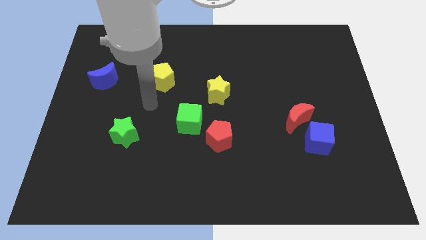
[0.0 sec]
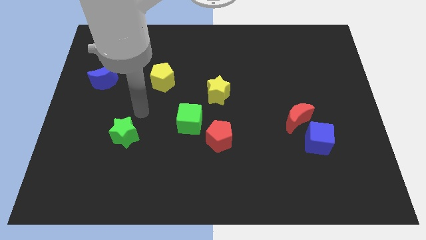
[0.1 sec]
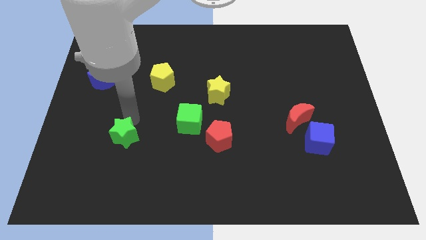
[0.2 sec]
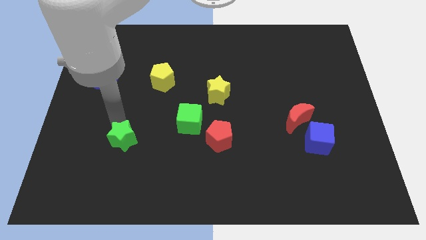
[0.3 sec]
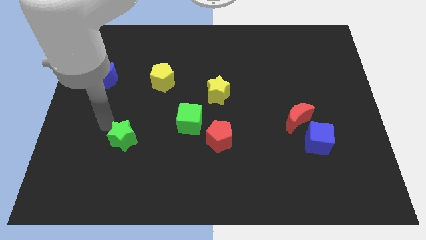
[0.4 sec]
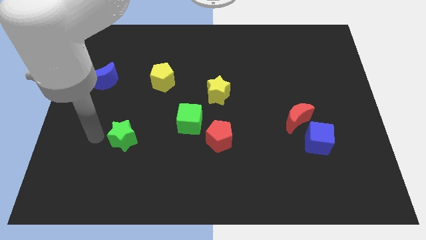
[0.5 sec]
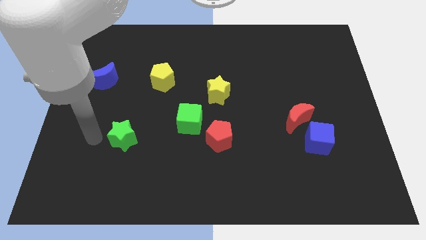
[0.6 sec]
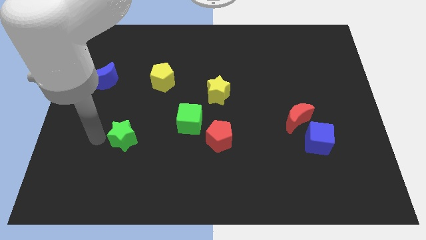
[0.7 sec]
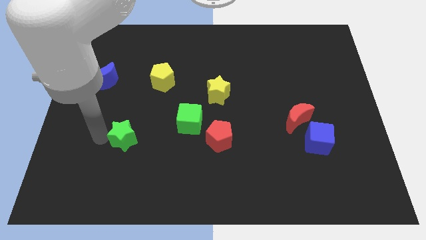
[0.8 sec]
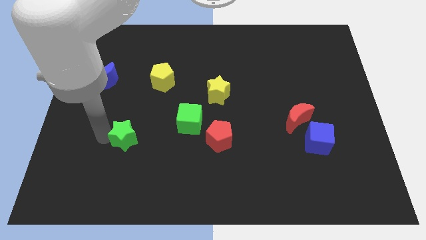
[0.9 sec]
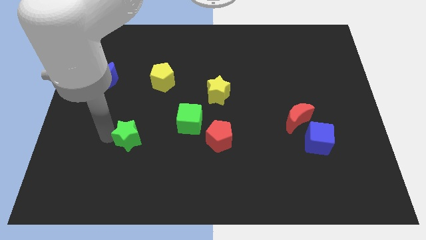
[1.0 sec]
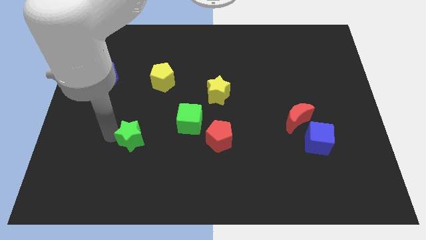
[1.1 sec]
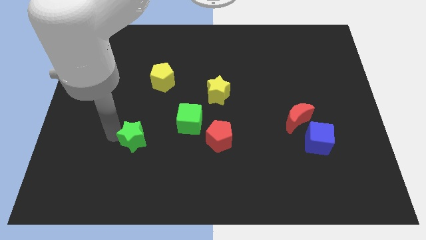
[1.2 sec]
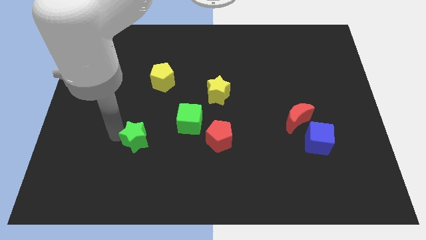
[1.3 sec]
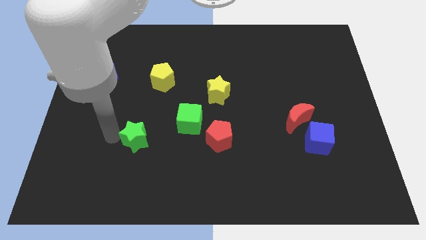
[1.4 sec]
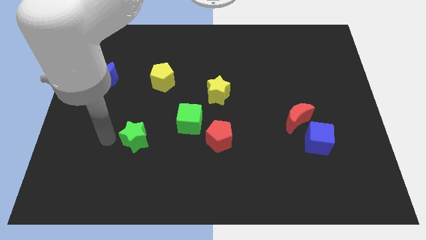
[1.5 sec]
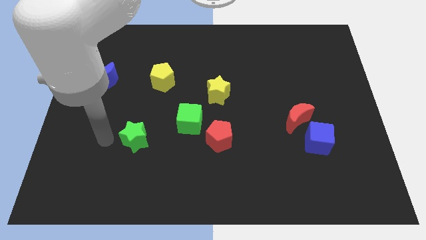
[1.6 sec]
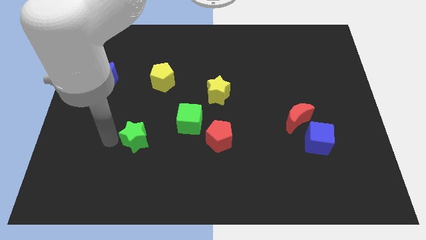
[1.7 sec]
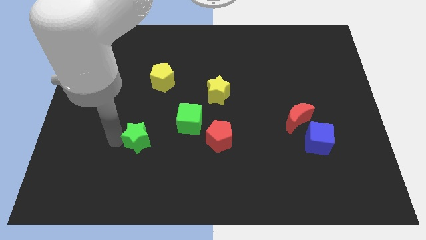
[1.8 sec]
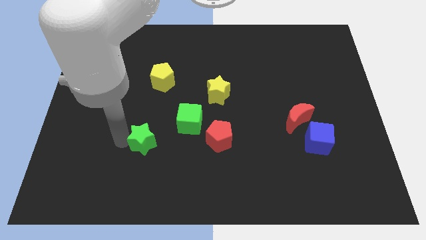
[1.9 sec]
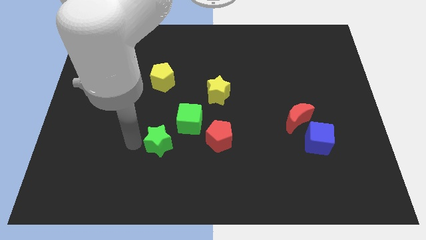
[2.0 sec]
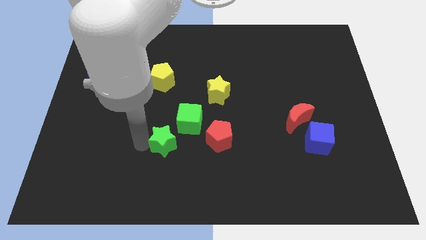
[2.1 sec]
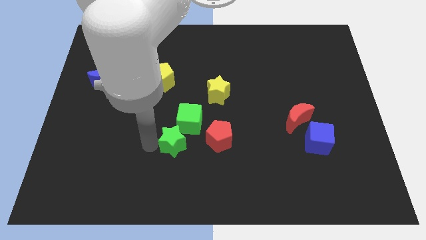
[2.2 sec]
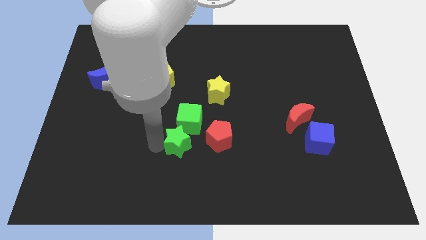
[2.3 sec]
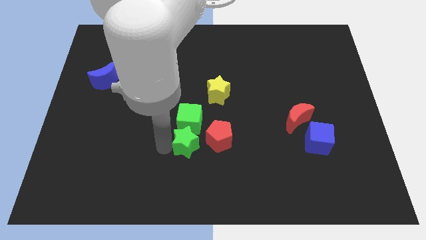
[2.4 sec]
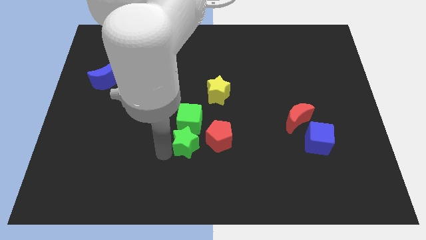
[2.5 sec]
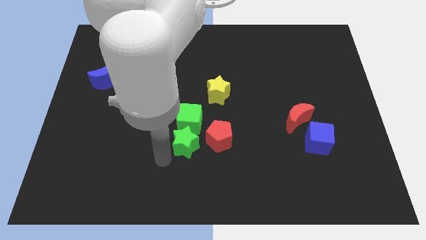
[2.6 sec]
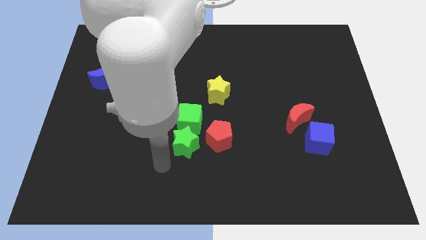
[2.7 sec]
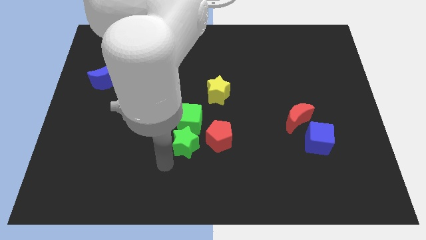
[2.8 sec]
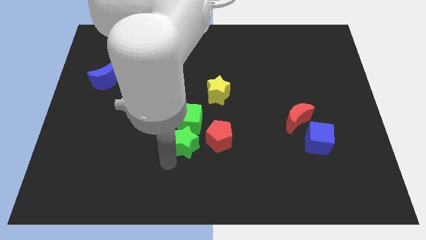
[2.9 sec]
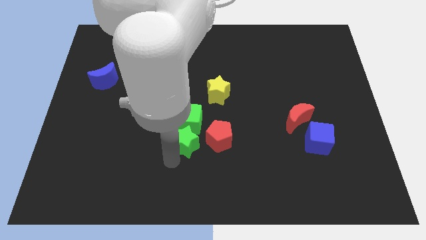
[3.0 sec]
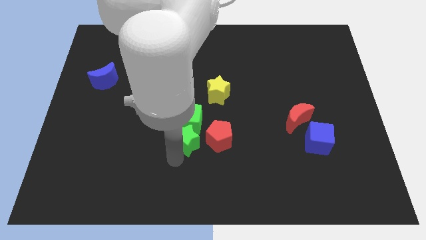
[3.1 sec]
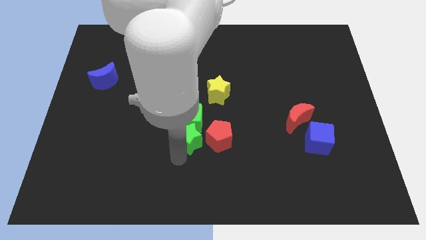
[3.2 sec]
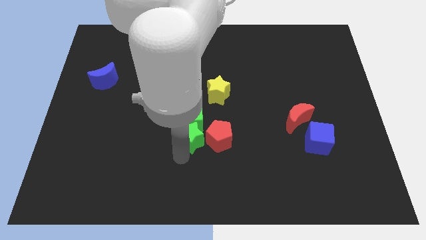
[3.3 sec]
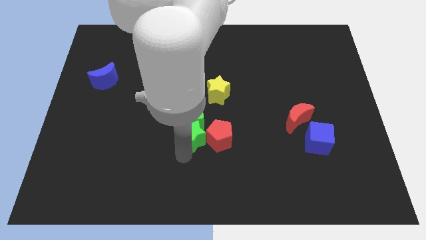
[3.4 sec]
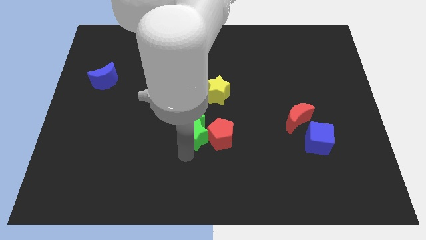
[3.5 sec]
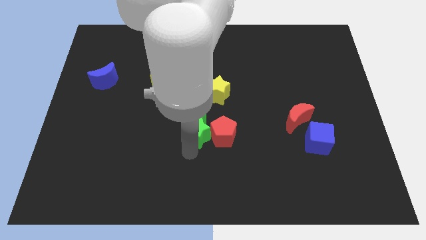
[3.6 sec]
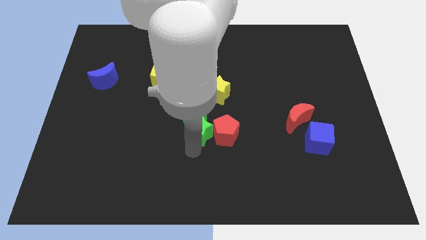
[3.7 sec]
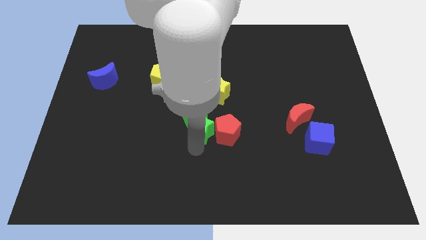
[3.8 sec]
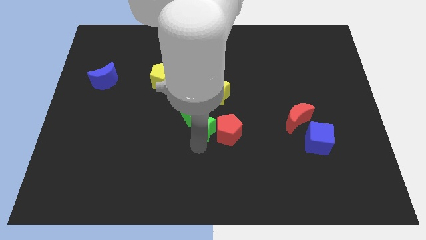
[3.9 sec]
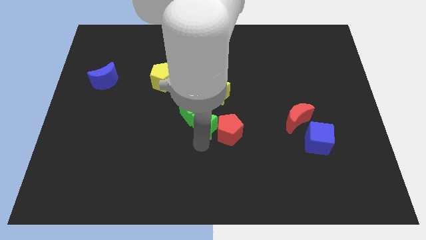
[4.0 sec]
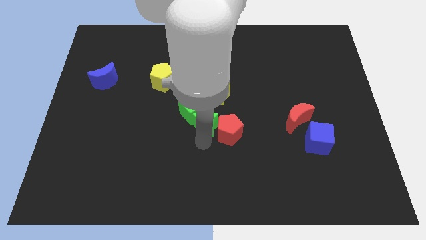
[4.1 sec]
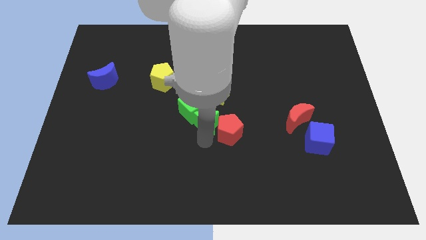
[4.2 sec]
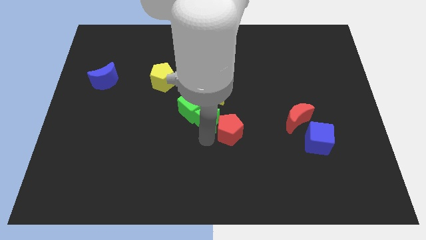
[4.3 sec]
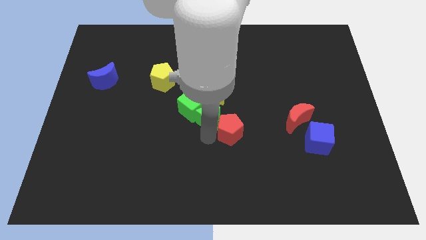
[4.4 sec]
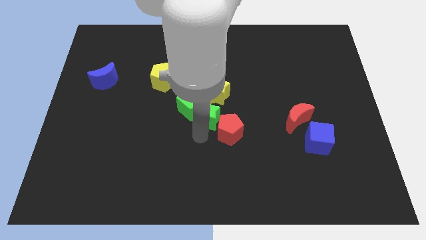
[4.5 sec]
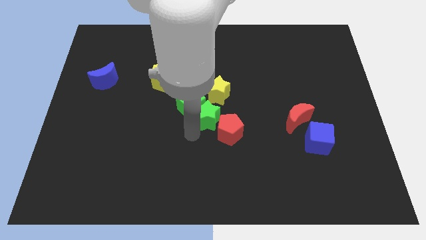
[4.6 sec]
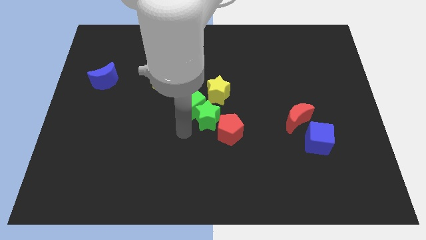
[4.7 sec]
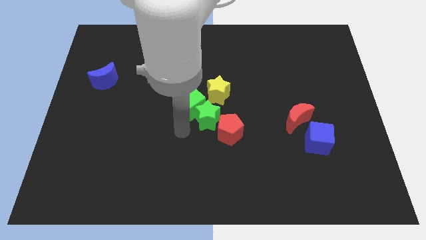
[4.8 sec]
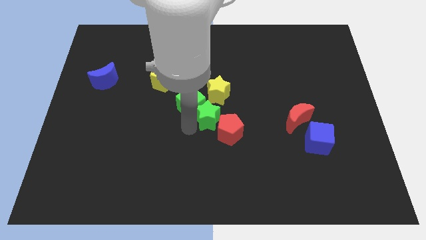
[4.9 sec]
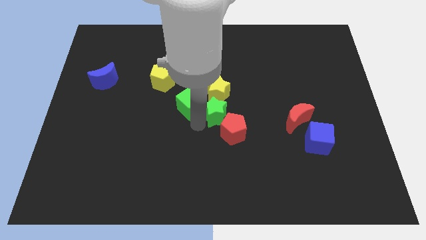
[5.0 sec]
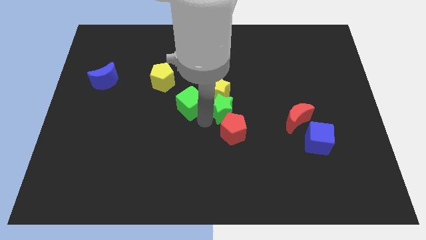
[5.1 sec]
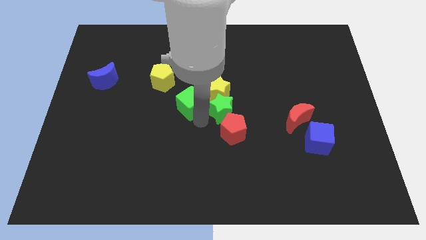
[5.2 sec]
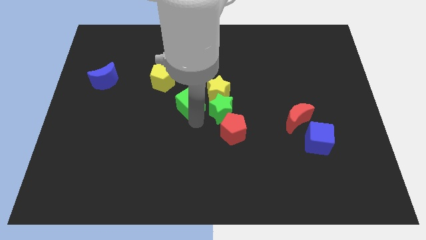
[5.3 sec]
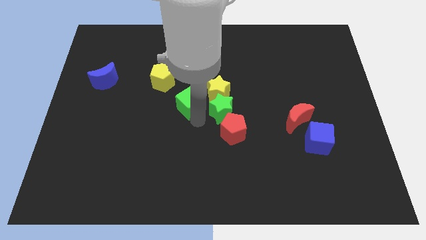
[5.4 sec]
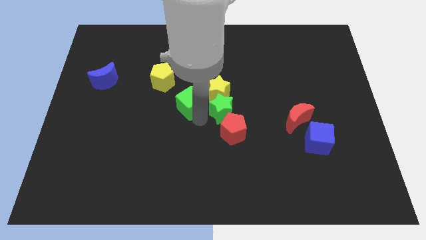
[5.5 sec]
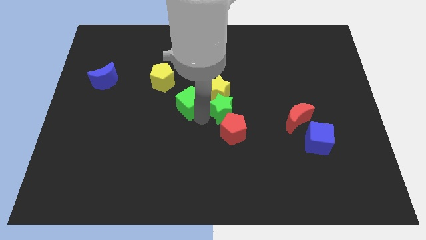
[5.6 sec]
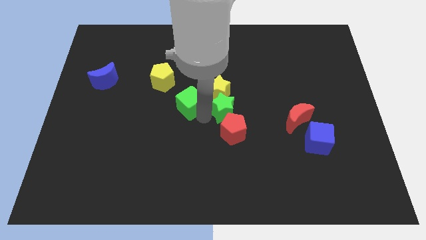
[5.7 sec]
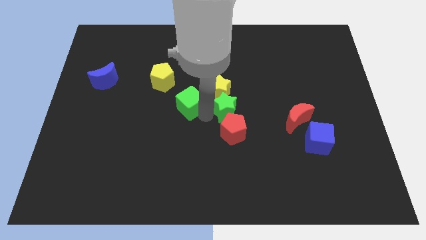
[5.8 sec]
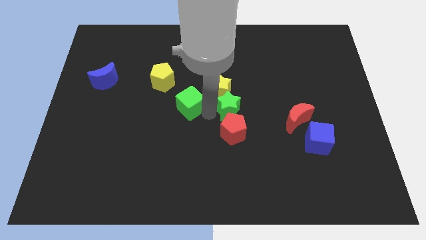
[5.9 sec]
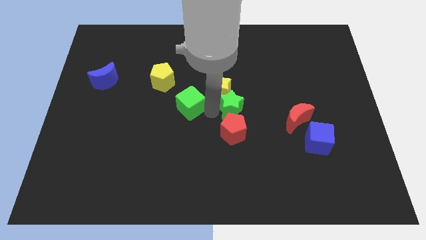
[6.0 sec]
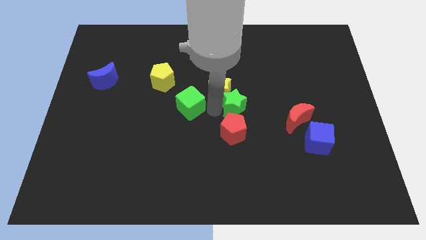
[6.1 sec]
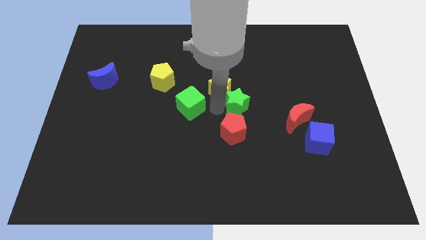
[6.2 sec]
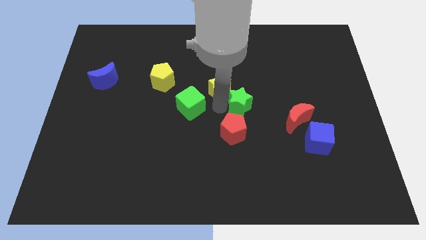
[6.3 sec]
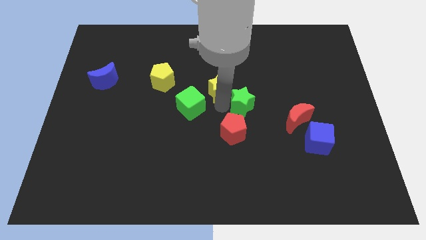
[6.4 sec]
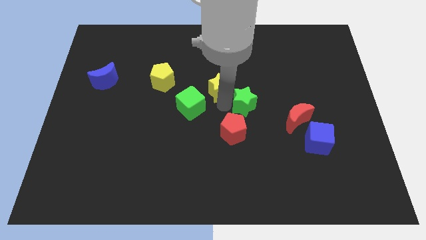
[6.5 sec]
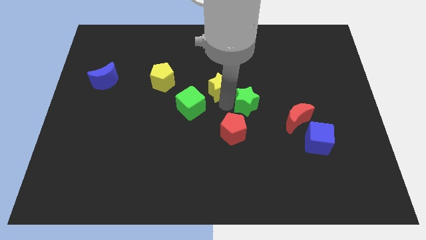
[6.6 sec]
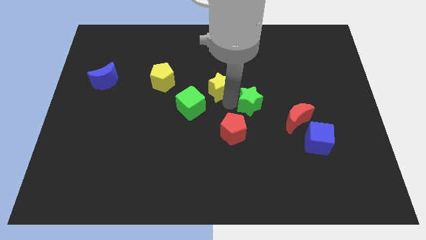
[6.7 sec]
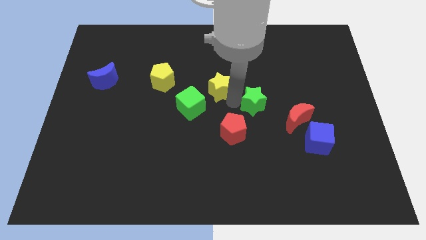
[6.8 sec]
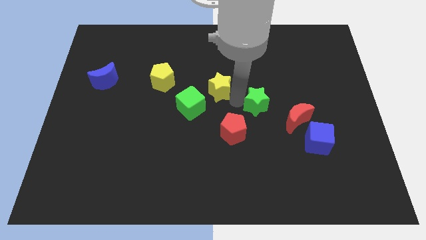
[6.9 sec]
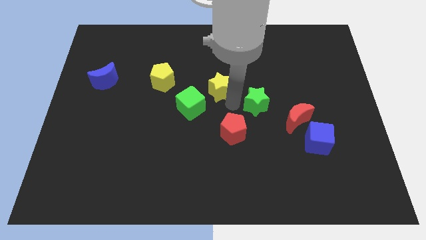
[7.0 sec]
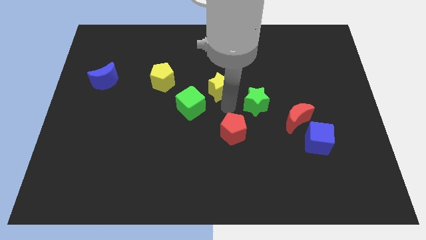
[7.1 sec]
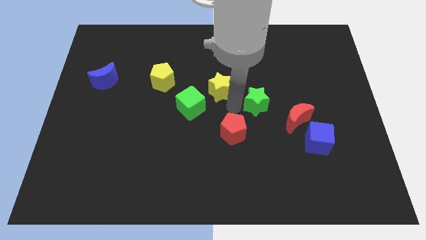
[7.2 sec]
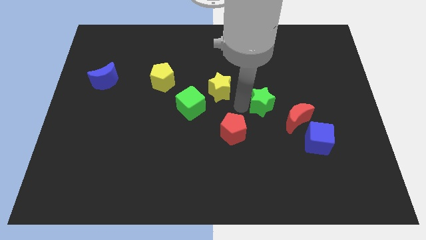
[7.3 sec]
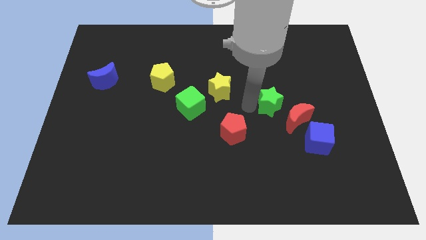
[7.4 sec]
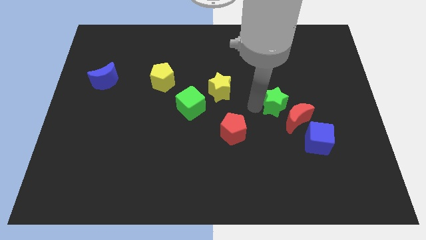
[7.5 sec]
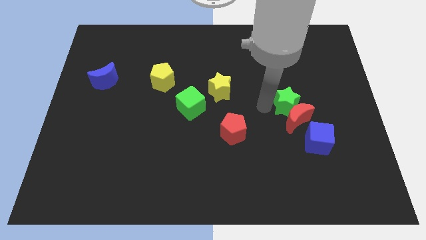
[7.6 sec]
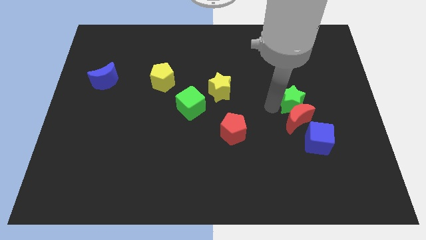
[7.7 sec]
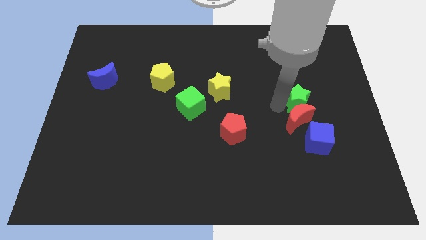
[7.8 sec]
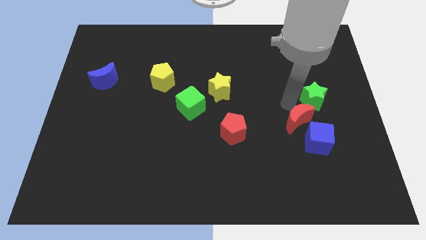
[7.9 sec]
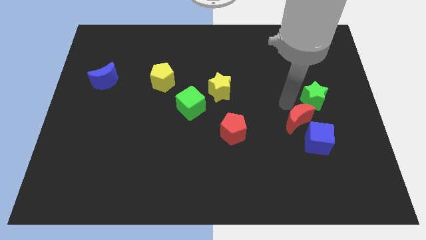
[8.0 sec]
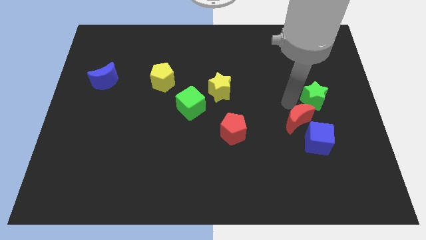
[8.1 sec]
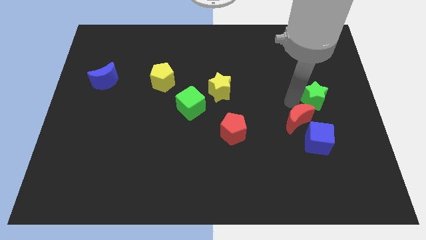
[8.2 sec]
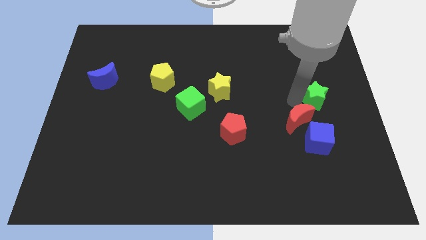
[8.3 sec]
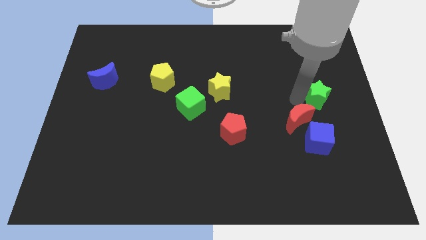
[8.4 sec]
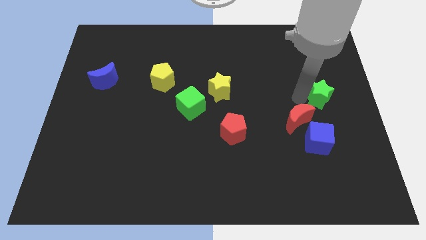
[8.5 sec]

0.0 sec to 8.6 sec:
move the green star to the right side of the board
